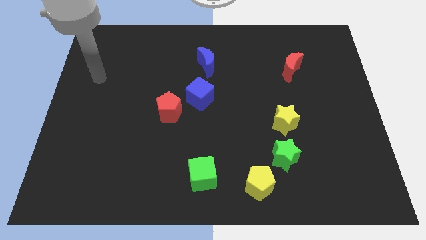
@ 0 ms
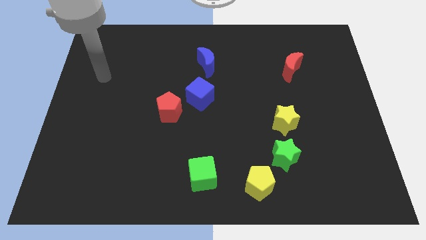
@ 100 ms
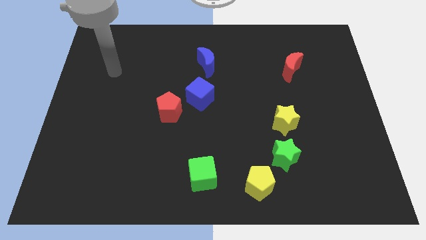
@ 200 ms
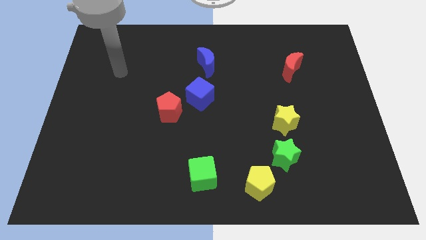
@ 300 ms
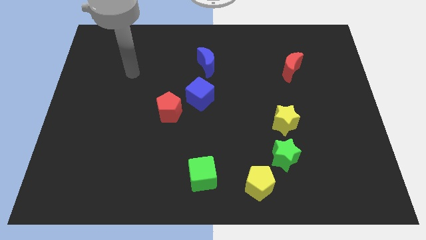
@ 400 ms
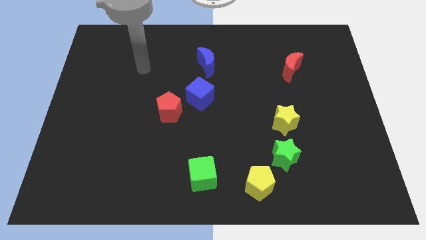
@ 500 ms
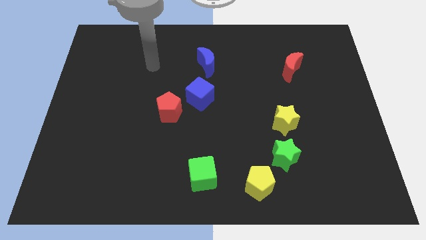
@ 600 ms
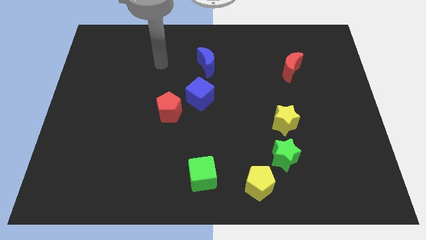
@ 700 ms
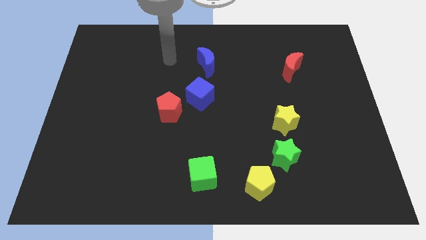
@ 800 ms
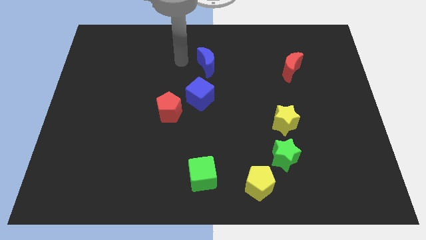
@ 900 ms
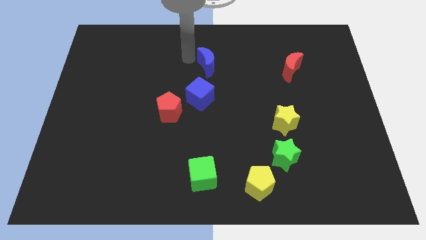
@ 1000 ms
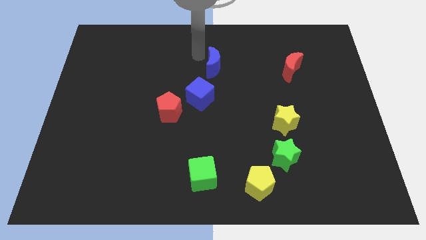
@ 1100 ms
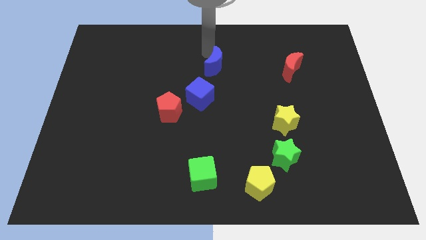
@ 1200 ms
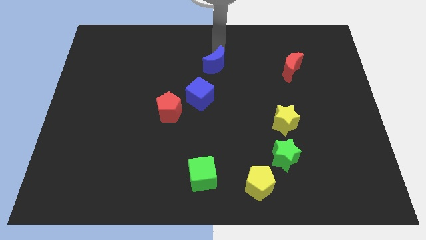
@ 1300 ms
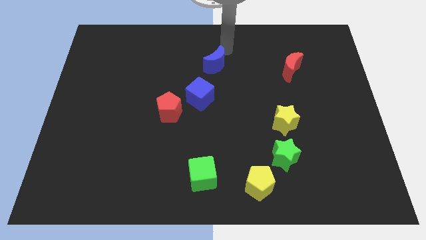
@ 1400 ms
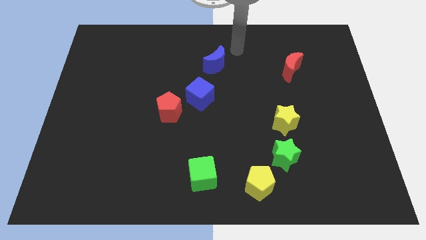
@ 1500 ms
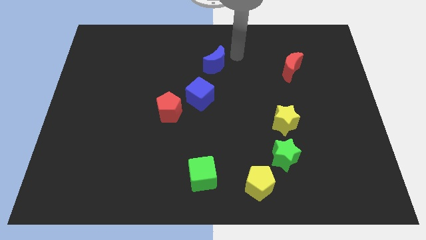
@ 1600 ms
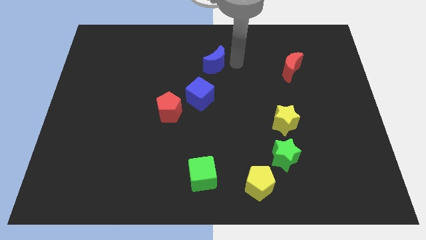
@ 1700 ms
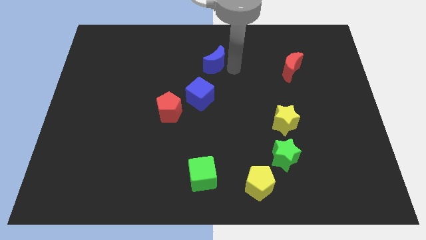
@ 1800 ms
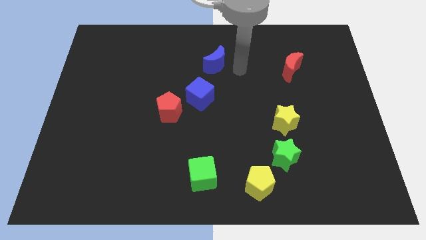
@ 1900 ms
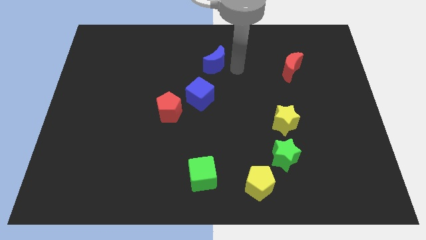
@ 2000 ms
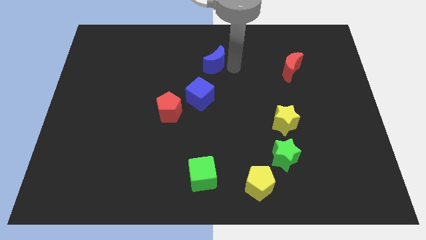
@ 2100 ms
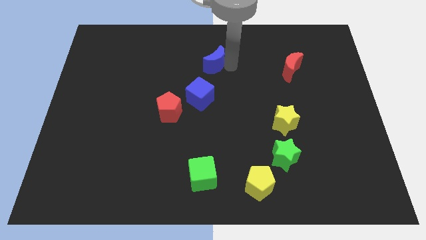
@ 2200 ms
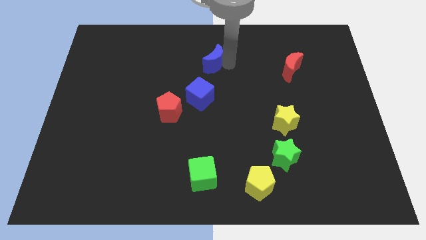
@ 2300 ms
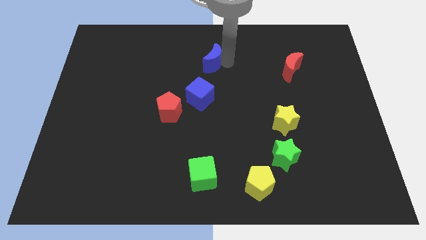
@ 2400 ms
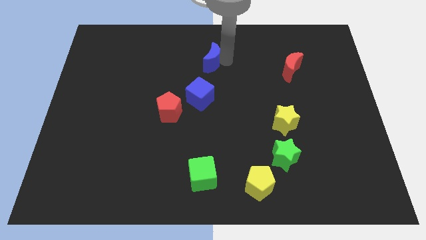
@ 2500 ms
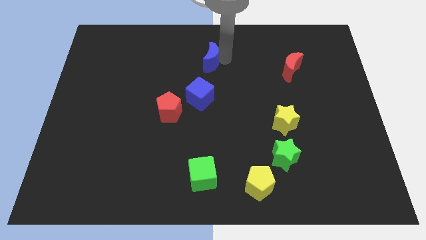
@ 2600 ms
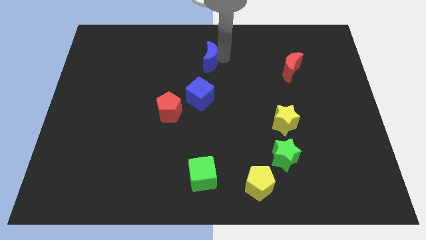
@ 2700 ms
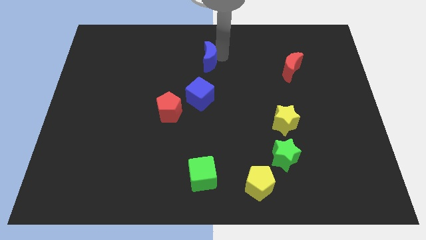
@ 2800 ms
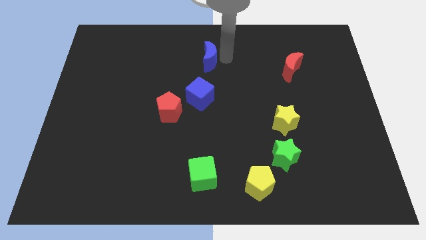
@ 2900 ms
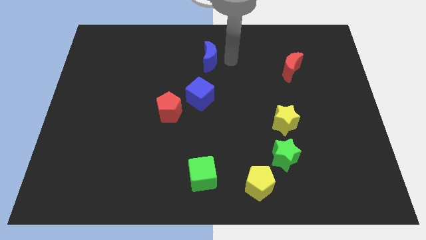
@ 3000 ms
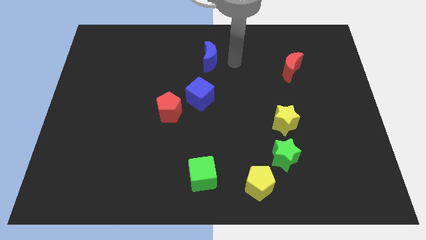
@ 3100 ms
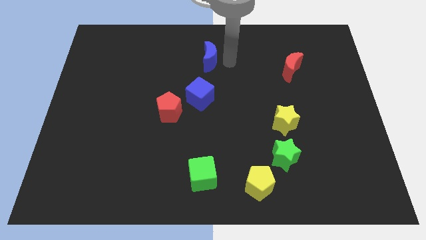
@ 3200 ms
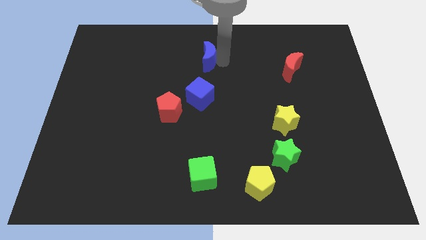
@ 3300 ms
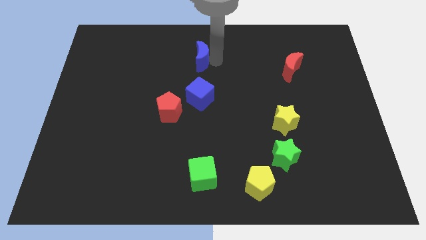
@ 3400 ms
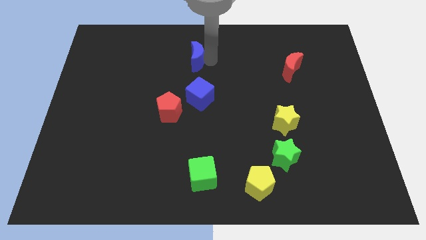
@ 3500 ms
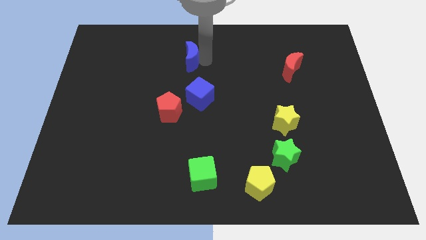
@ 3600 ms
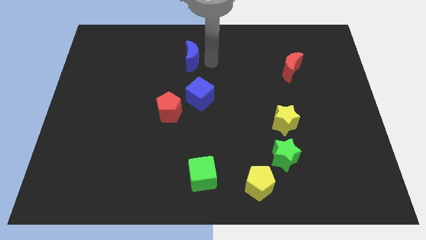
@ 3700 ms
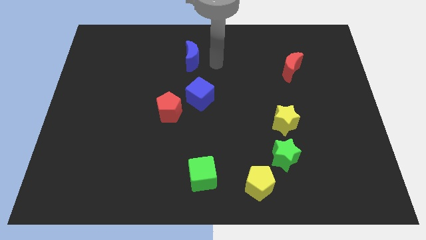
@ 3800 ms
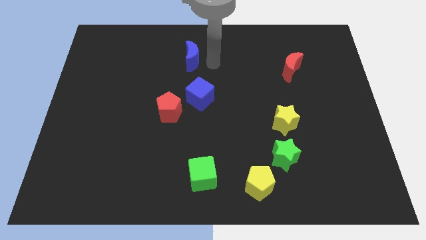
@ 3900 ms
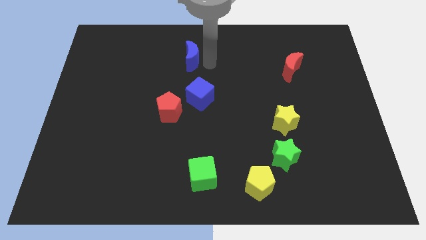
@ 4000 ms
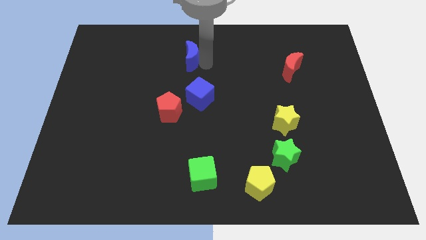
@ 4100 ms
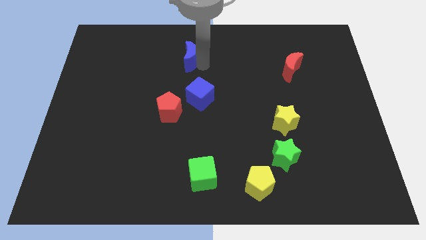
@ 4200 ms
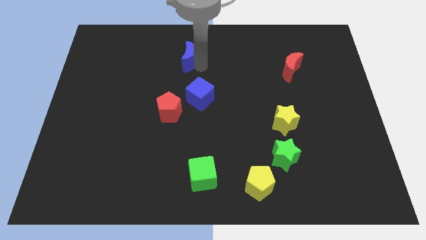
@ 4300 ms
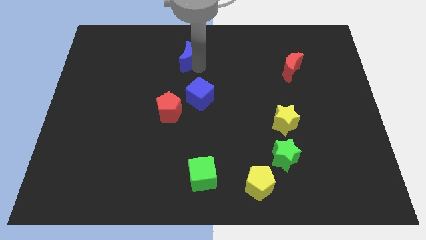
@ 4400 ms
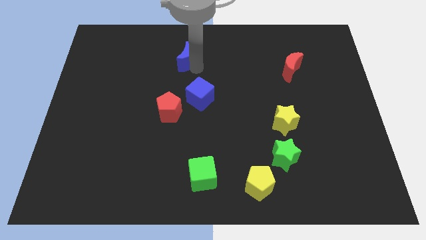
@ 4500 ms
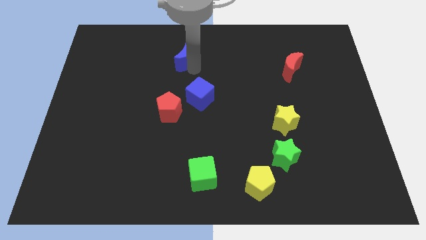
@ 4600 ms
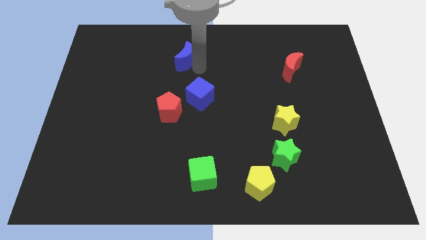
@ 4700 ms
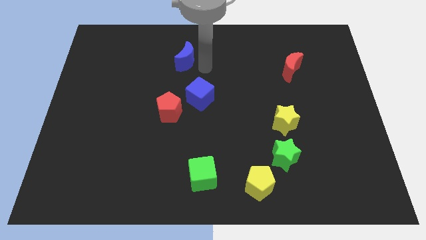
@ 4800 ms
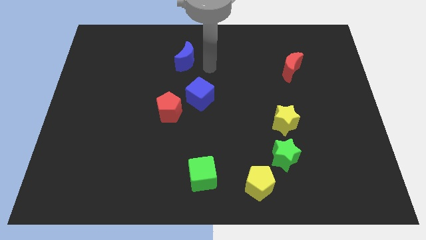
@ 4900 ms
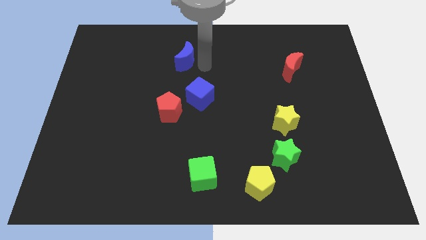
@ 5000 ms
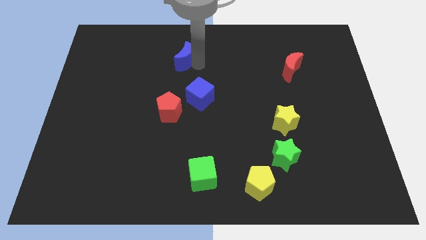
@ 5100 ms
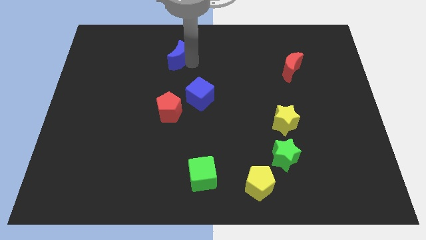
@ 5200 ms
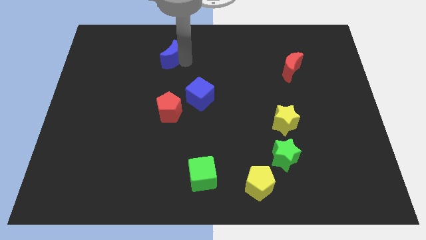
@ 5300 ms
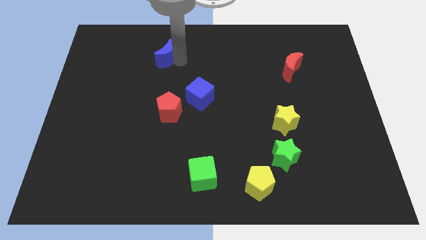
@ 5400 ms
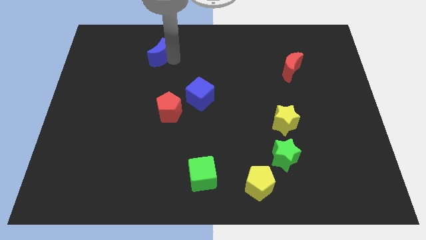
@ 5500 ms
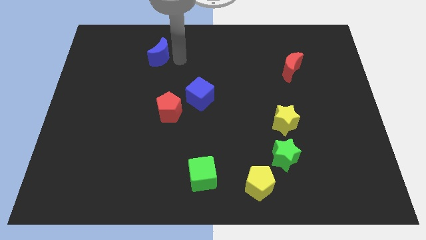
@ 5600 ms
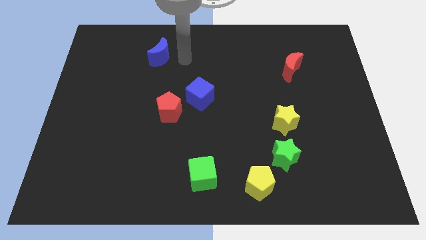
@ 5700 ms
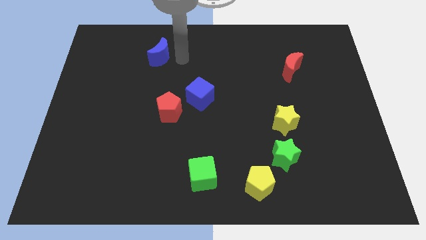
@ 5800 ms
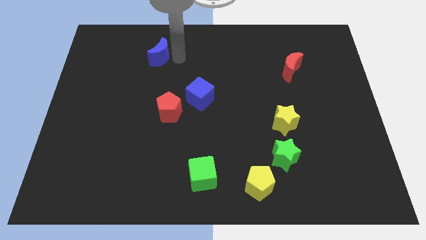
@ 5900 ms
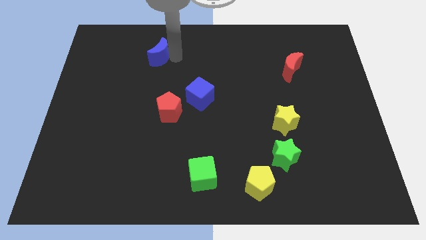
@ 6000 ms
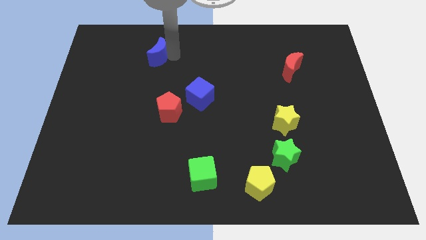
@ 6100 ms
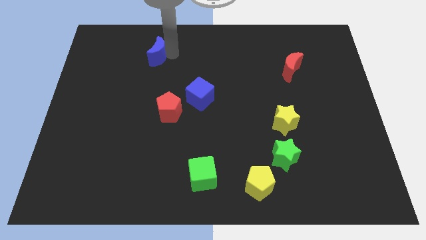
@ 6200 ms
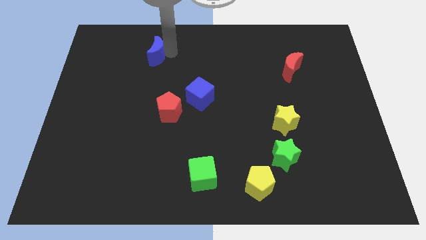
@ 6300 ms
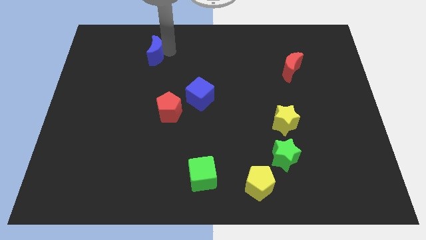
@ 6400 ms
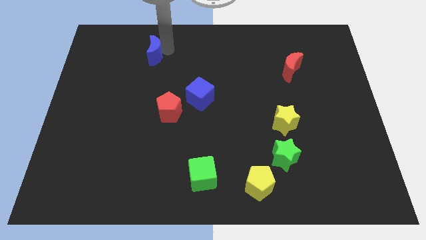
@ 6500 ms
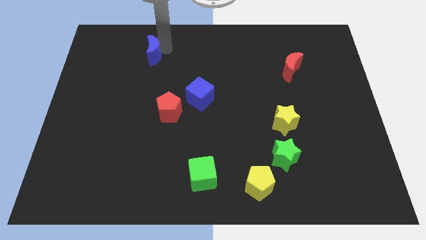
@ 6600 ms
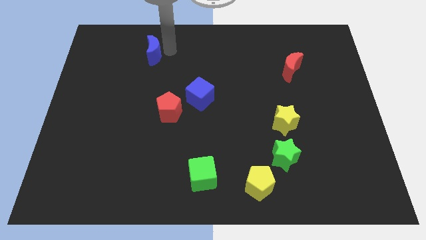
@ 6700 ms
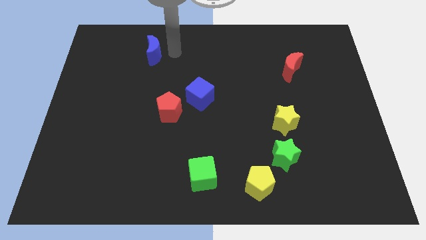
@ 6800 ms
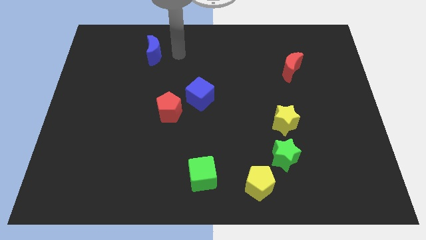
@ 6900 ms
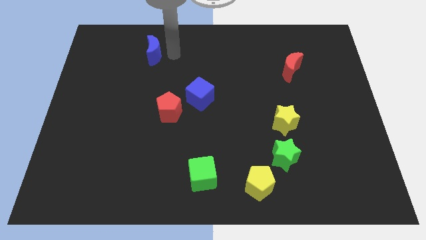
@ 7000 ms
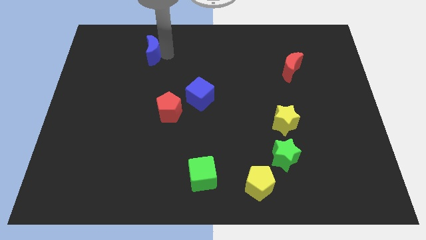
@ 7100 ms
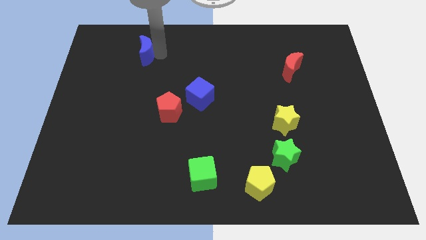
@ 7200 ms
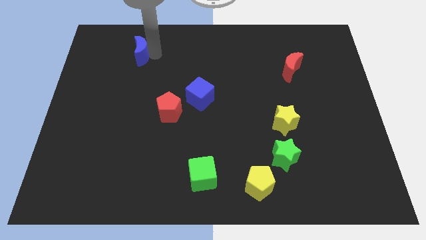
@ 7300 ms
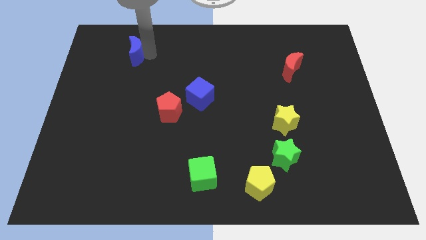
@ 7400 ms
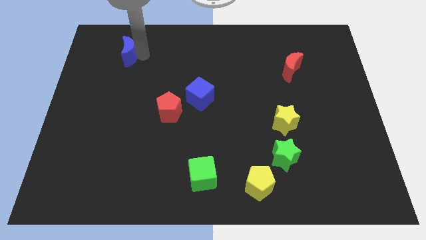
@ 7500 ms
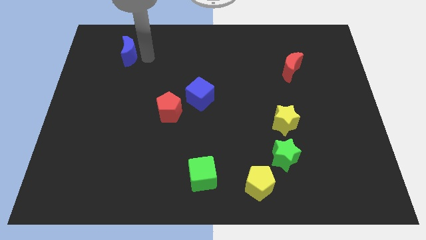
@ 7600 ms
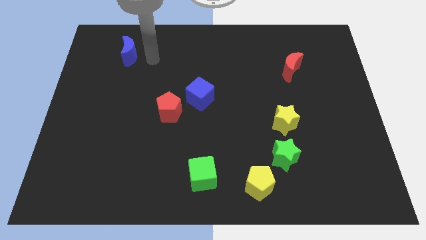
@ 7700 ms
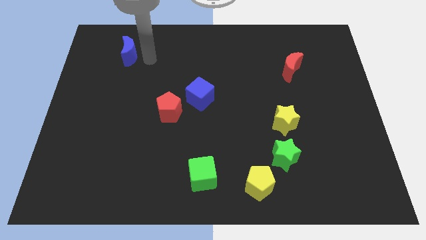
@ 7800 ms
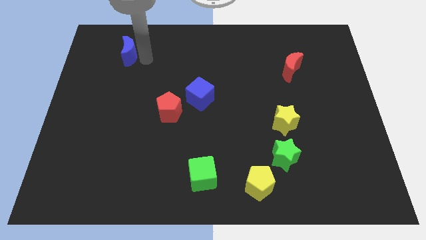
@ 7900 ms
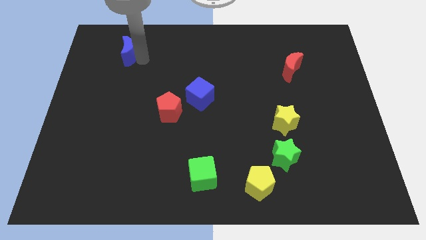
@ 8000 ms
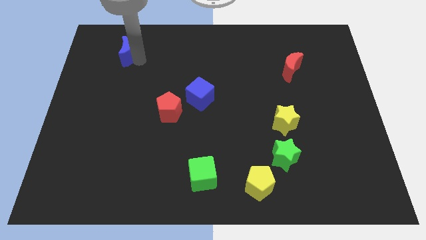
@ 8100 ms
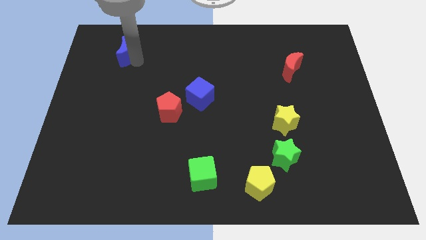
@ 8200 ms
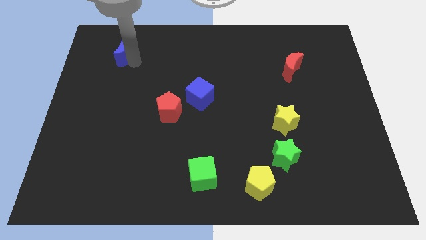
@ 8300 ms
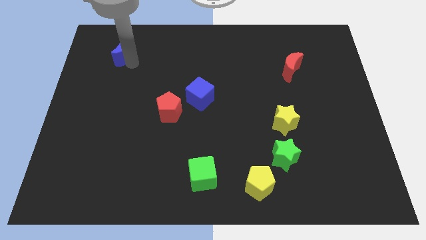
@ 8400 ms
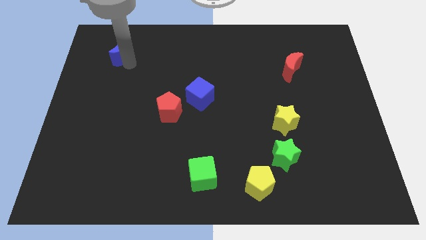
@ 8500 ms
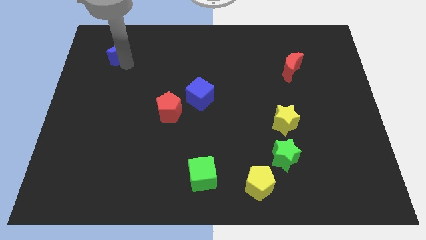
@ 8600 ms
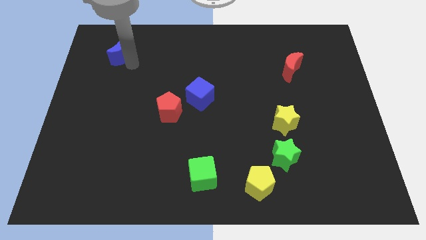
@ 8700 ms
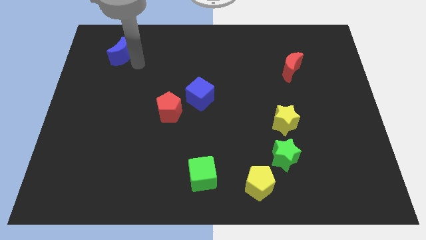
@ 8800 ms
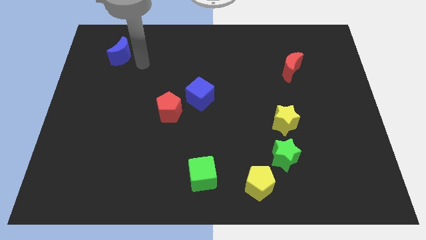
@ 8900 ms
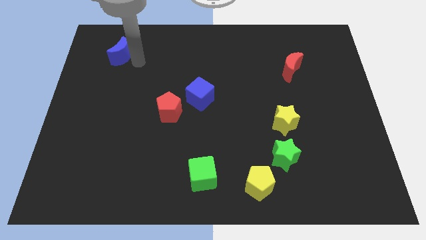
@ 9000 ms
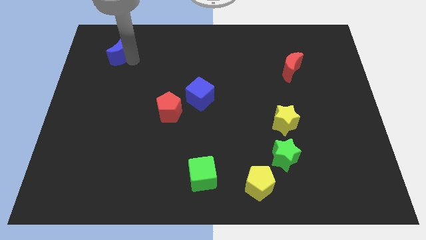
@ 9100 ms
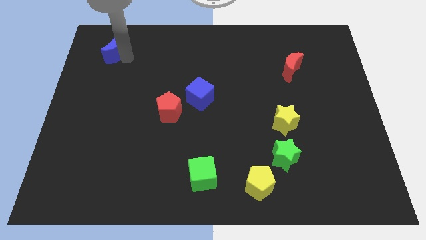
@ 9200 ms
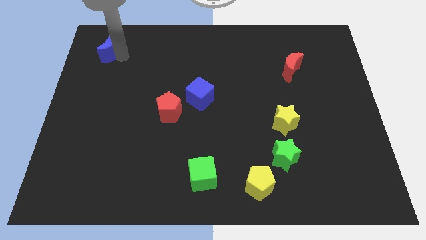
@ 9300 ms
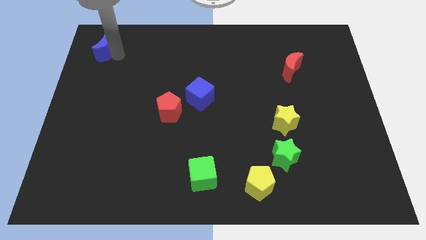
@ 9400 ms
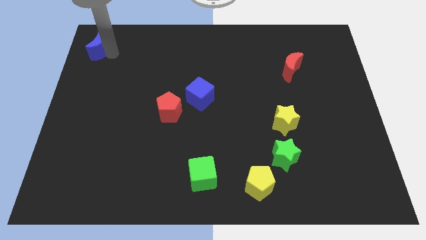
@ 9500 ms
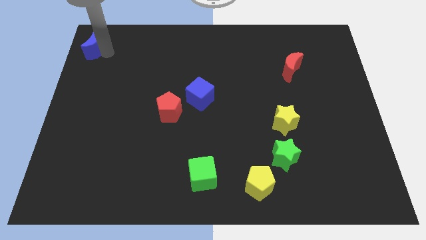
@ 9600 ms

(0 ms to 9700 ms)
push the blue moon to the upper left corner
